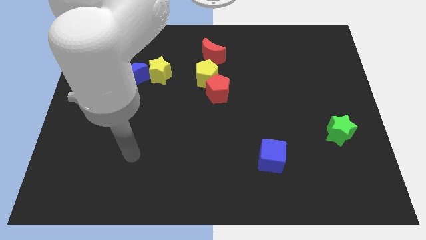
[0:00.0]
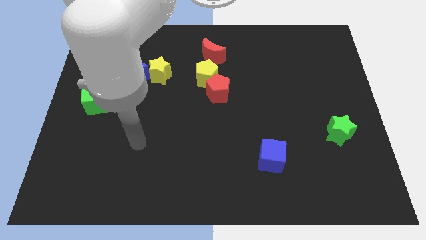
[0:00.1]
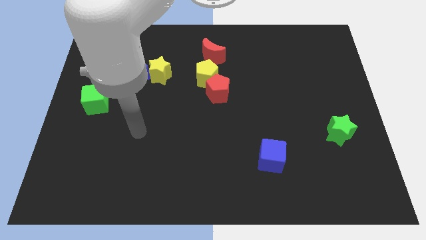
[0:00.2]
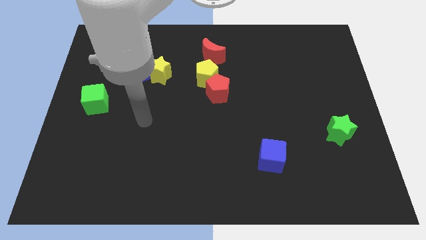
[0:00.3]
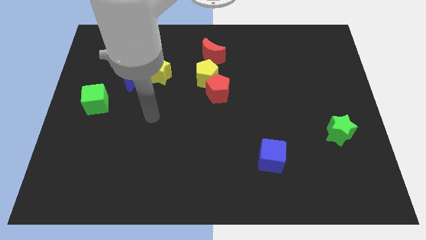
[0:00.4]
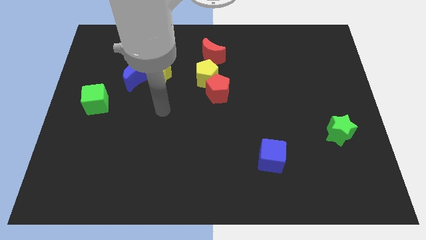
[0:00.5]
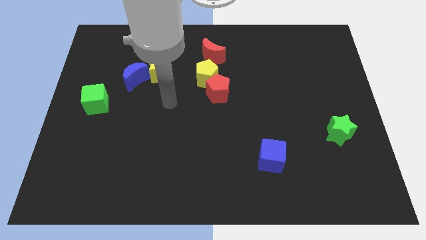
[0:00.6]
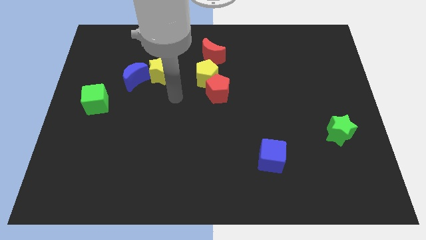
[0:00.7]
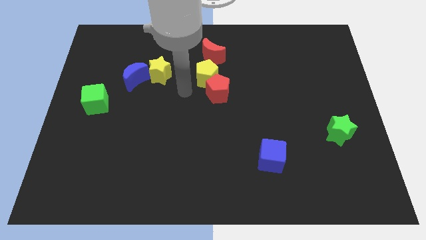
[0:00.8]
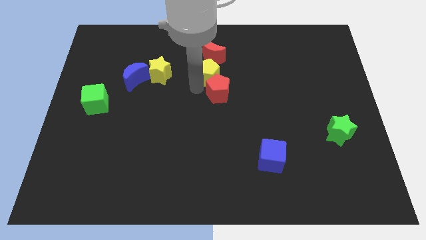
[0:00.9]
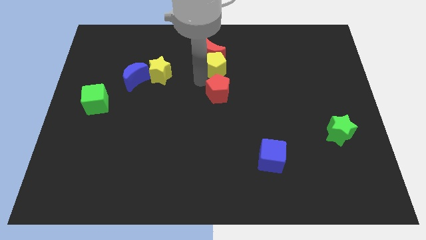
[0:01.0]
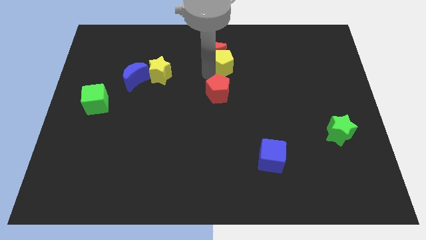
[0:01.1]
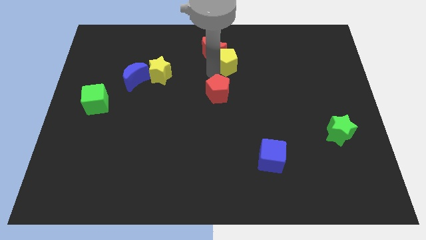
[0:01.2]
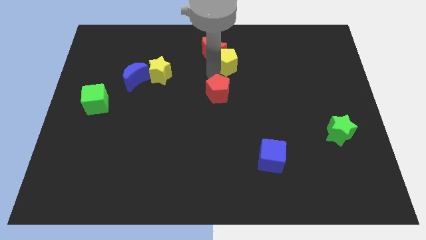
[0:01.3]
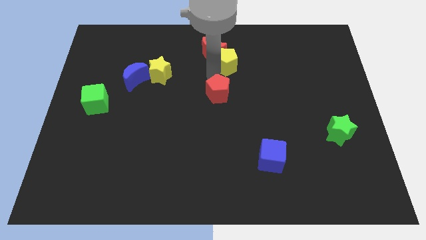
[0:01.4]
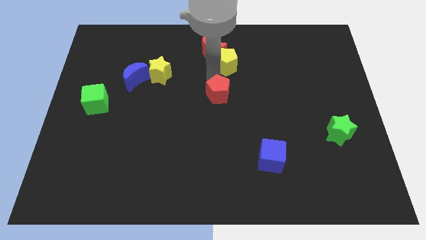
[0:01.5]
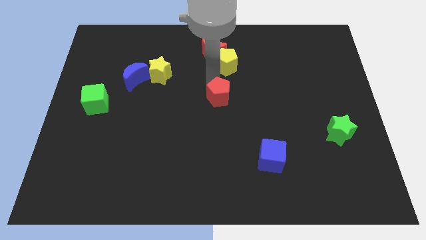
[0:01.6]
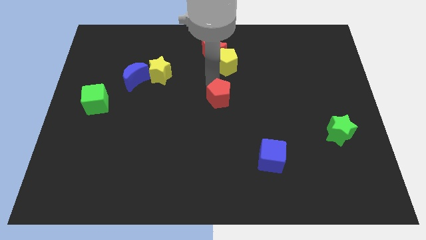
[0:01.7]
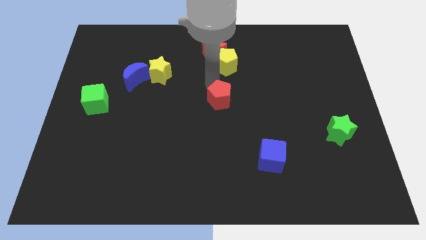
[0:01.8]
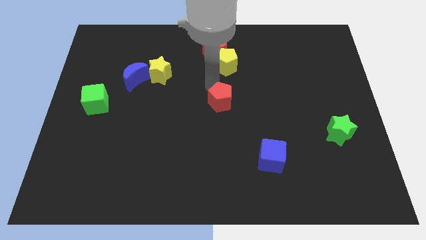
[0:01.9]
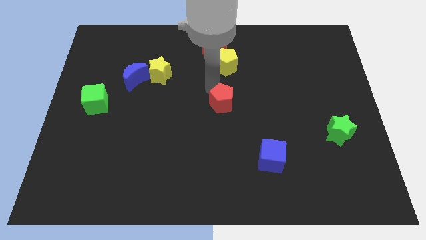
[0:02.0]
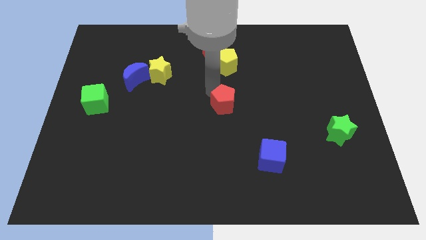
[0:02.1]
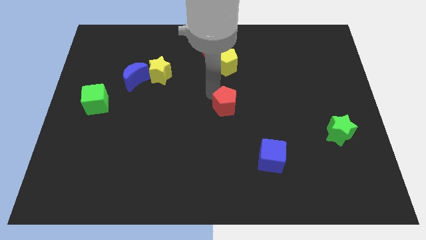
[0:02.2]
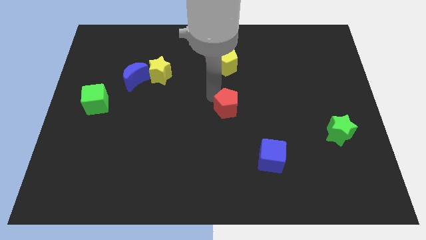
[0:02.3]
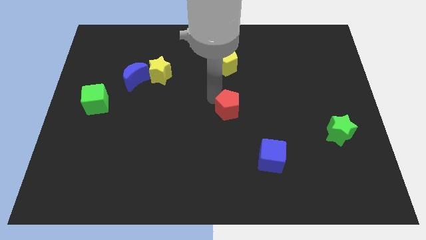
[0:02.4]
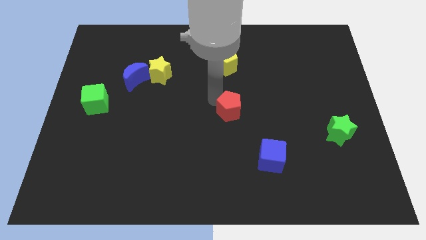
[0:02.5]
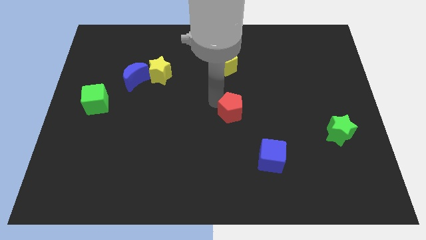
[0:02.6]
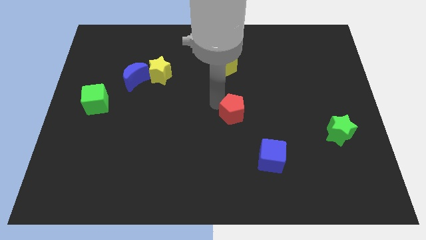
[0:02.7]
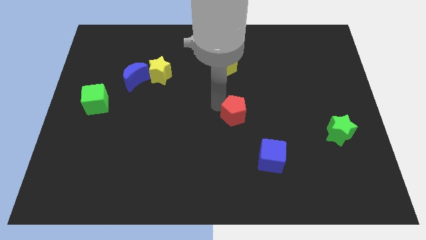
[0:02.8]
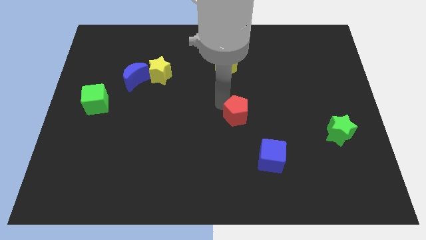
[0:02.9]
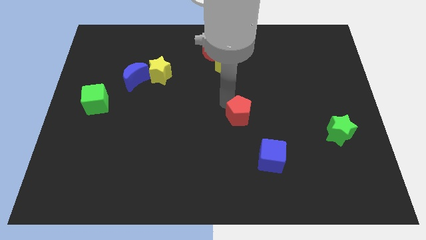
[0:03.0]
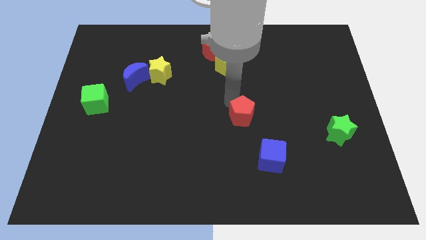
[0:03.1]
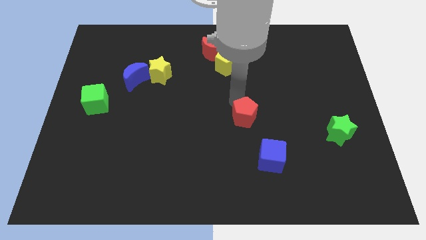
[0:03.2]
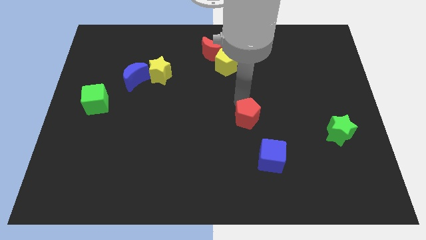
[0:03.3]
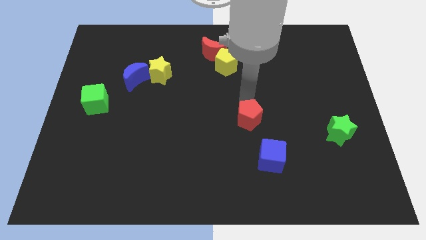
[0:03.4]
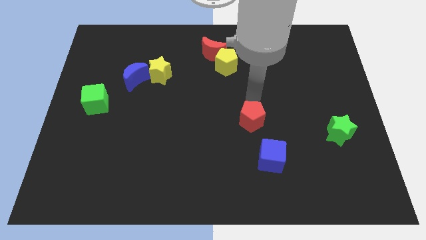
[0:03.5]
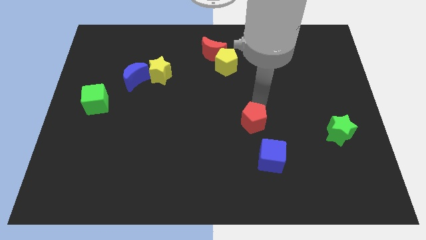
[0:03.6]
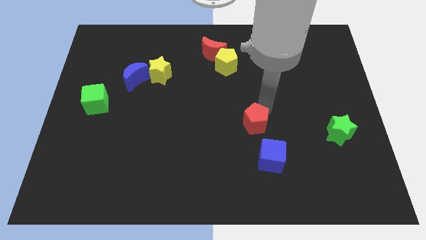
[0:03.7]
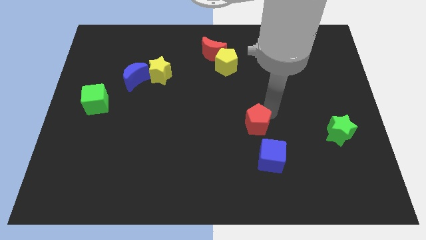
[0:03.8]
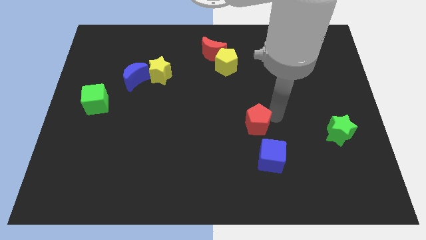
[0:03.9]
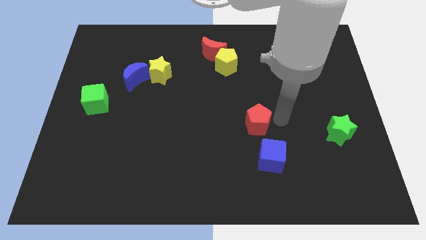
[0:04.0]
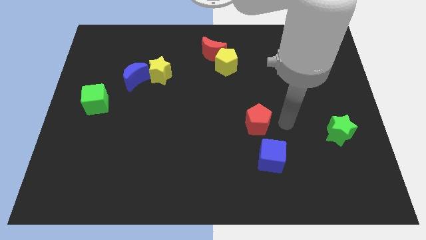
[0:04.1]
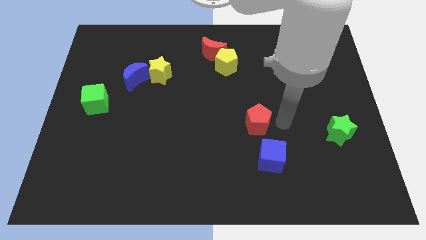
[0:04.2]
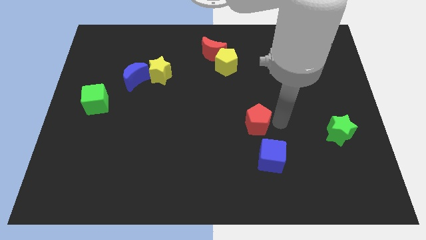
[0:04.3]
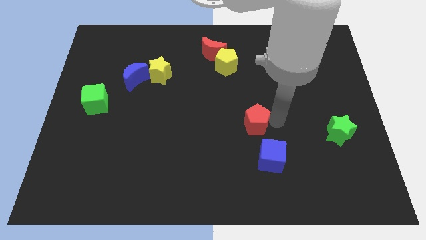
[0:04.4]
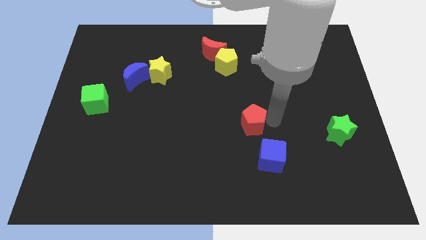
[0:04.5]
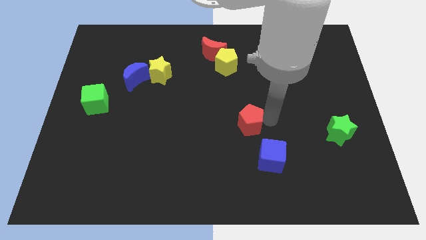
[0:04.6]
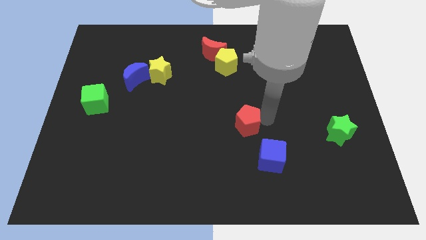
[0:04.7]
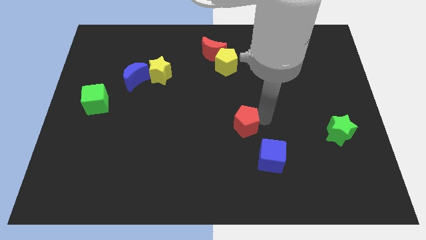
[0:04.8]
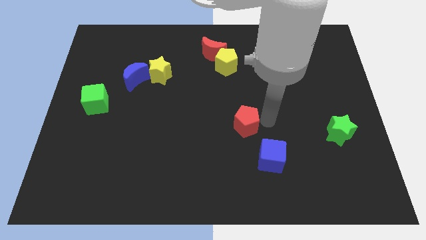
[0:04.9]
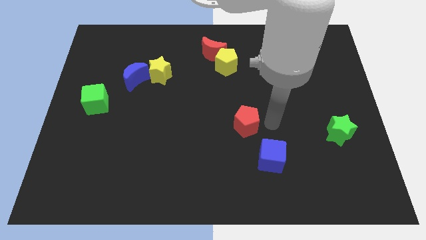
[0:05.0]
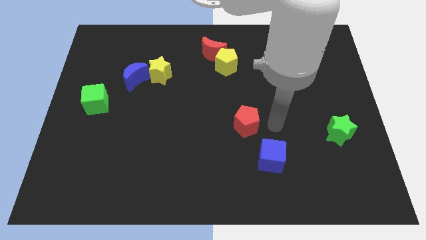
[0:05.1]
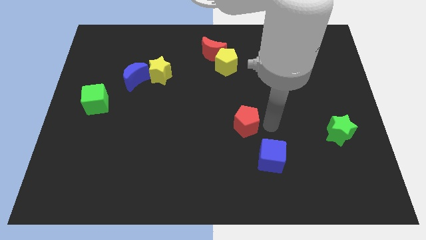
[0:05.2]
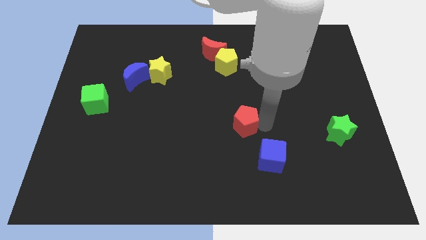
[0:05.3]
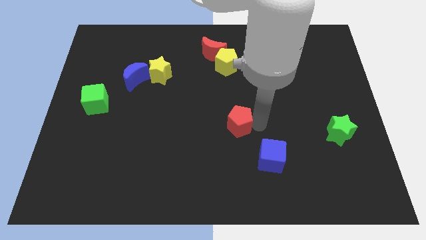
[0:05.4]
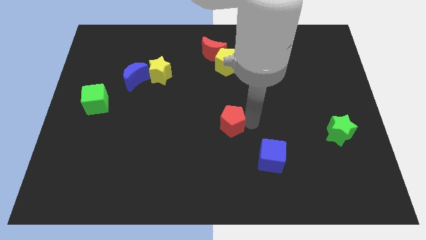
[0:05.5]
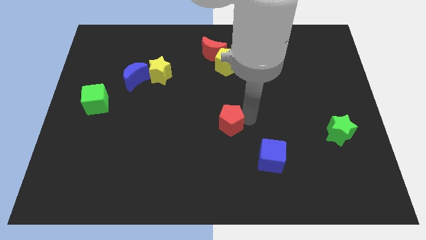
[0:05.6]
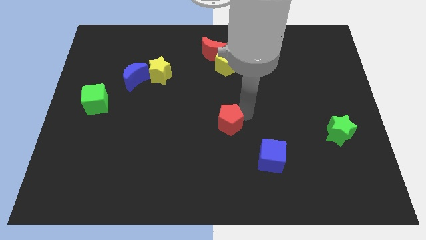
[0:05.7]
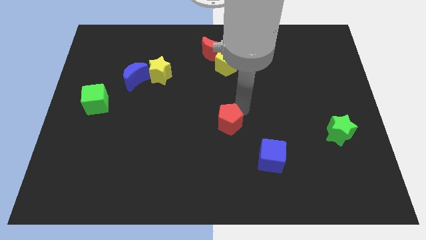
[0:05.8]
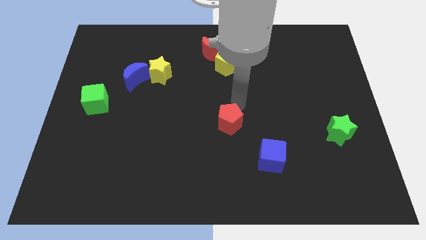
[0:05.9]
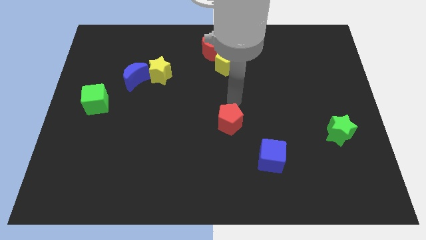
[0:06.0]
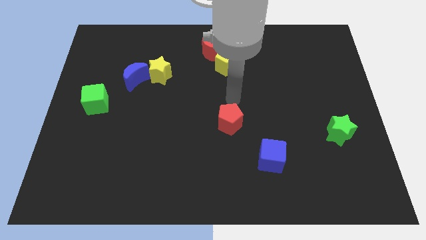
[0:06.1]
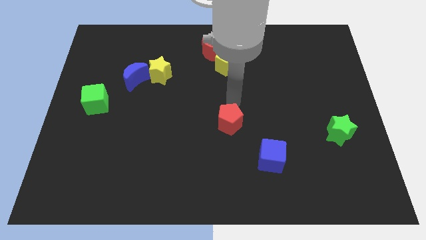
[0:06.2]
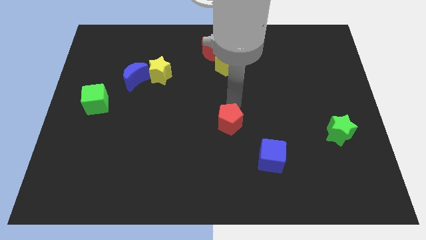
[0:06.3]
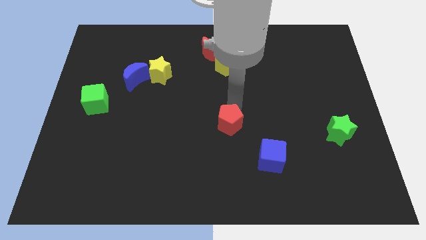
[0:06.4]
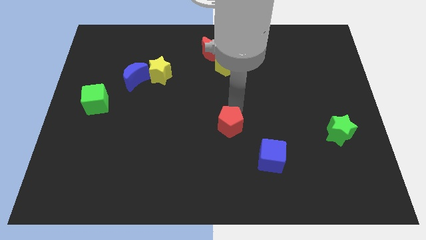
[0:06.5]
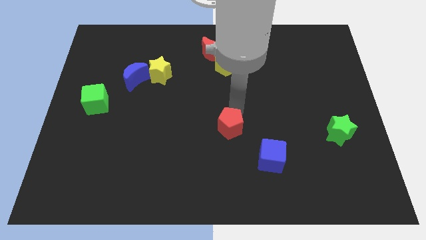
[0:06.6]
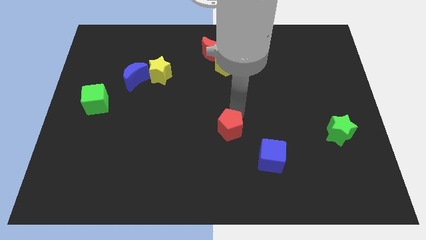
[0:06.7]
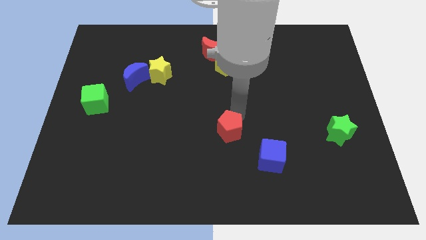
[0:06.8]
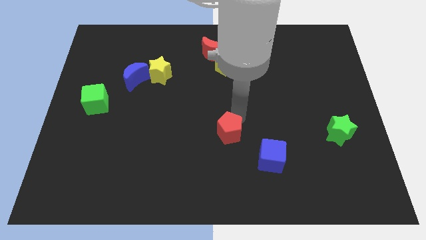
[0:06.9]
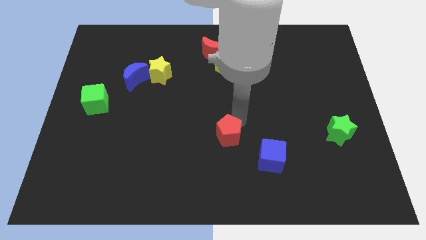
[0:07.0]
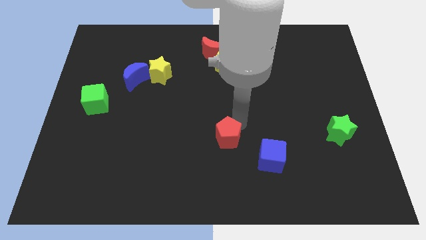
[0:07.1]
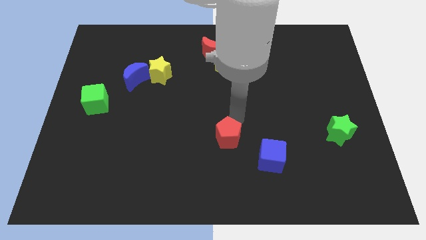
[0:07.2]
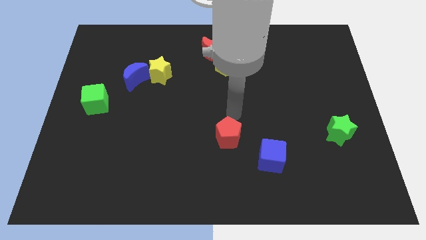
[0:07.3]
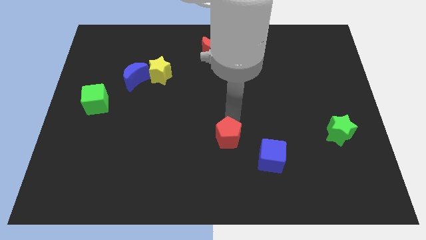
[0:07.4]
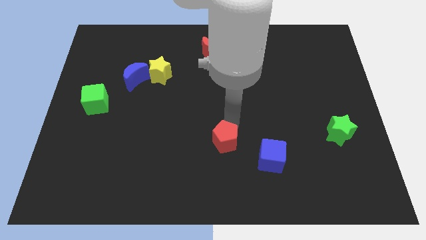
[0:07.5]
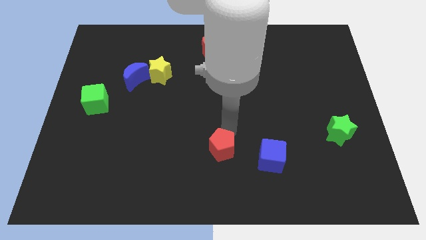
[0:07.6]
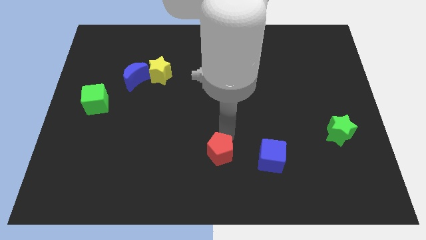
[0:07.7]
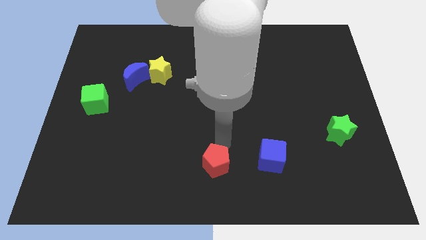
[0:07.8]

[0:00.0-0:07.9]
move the red pentagon to the bottom
